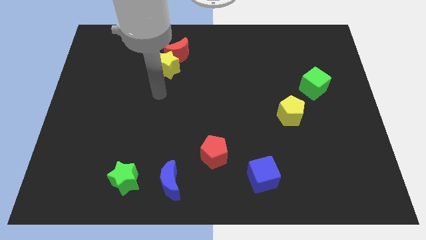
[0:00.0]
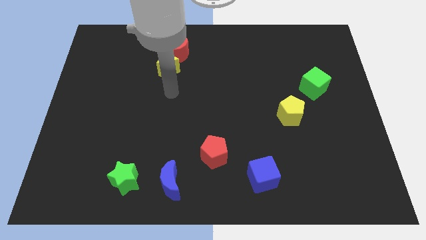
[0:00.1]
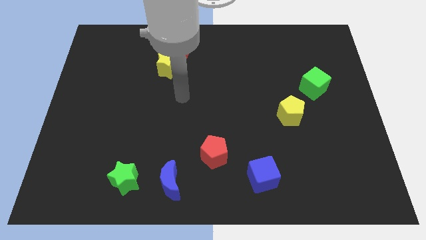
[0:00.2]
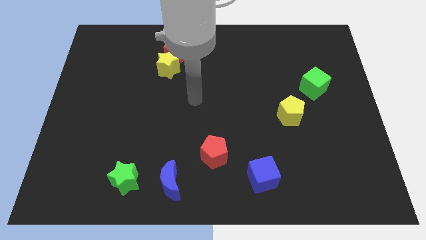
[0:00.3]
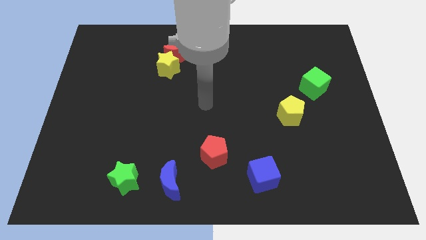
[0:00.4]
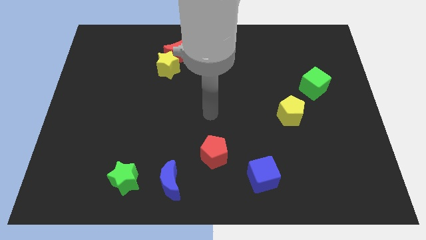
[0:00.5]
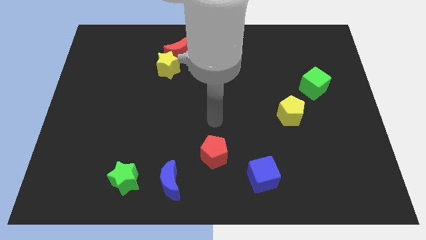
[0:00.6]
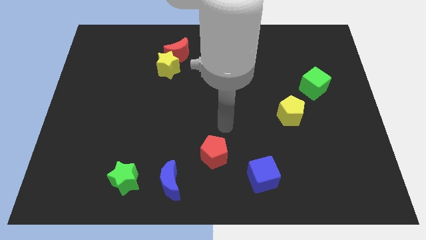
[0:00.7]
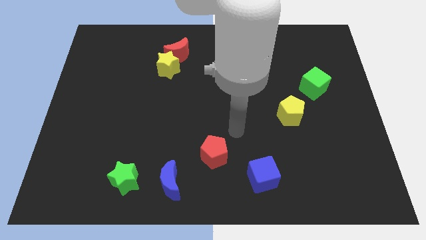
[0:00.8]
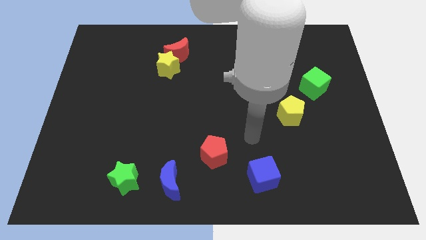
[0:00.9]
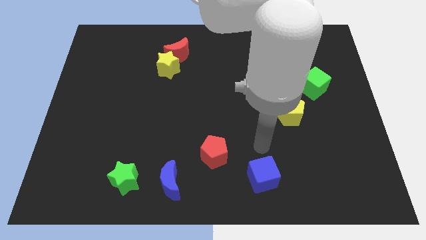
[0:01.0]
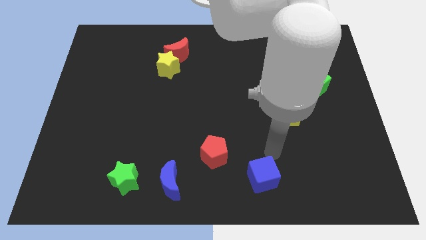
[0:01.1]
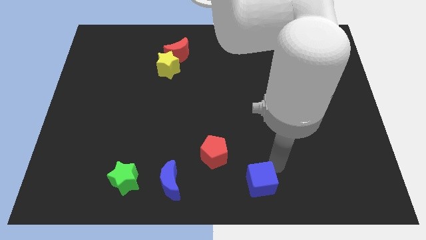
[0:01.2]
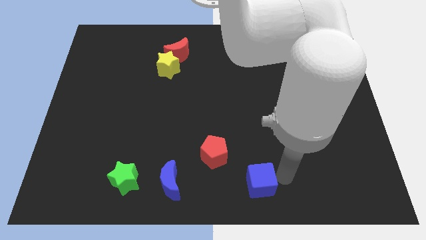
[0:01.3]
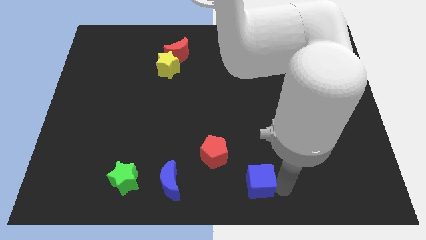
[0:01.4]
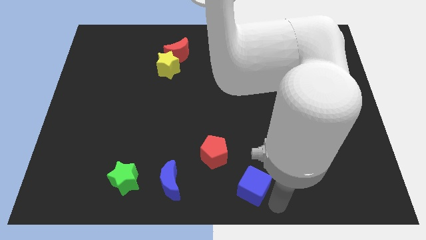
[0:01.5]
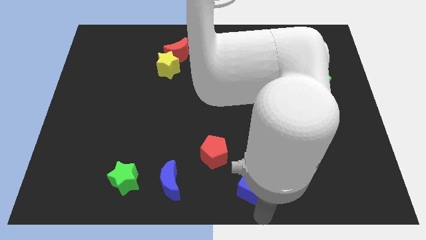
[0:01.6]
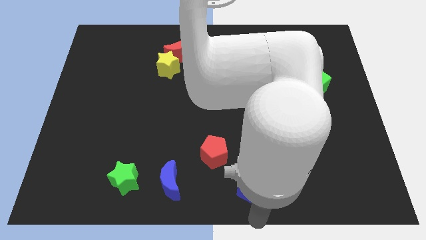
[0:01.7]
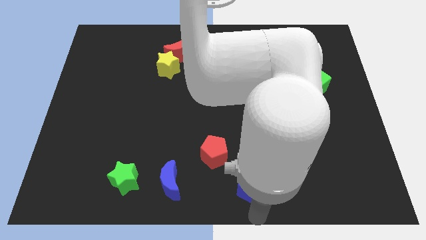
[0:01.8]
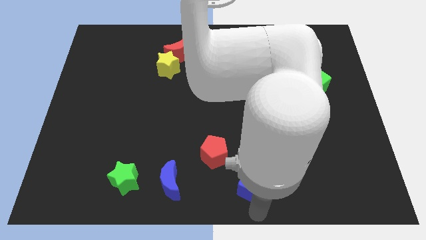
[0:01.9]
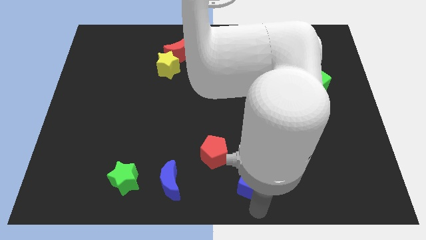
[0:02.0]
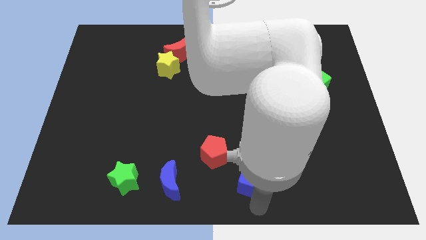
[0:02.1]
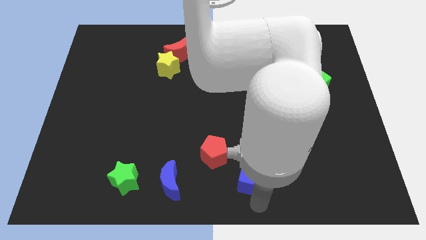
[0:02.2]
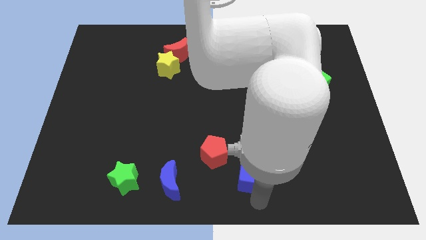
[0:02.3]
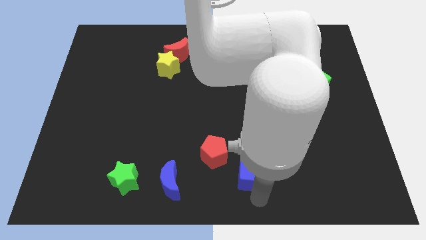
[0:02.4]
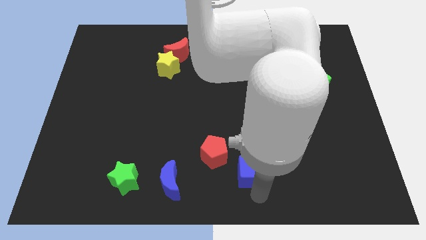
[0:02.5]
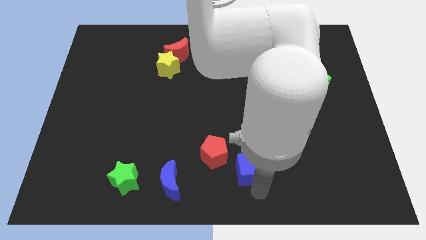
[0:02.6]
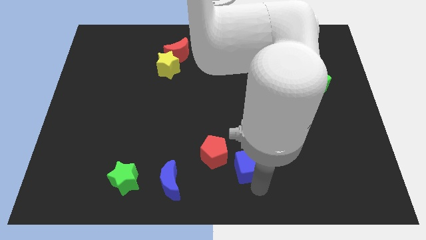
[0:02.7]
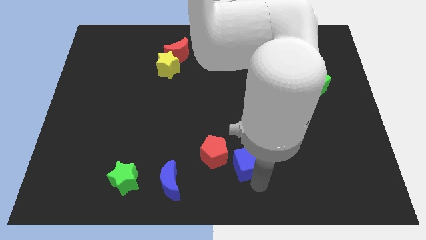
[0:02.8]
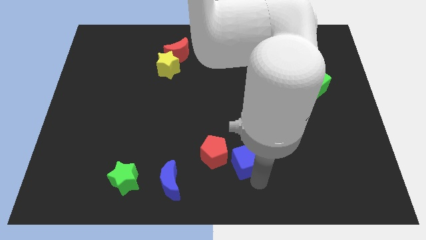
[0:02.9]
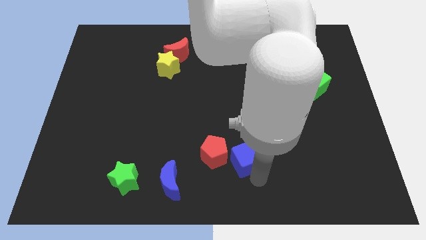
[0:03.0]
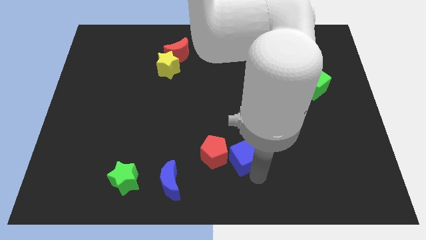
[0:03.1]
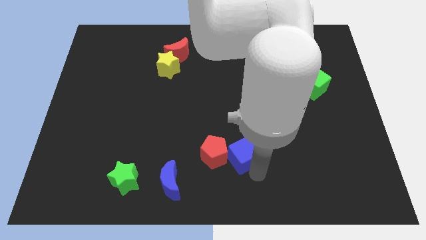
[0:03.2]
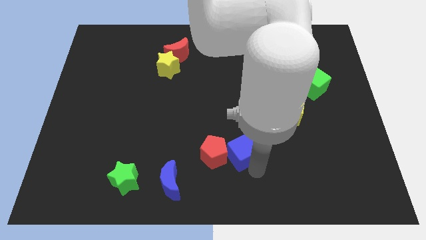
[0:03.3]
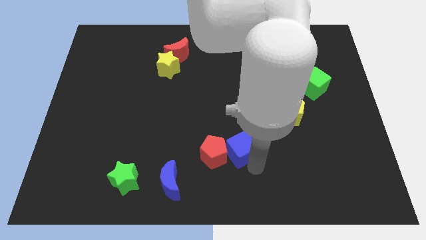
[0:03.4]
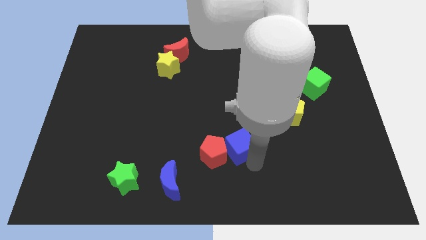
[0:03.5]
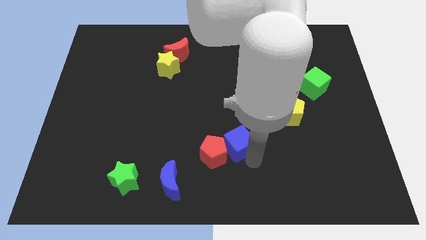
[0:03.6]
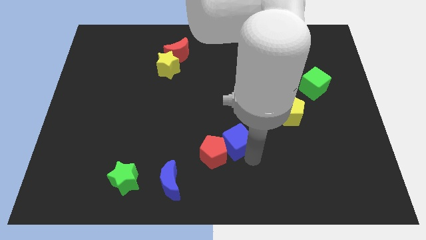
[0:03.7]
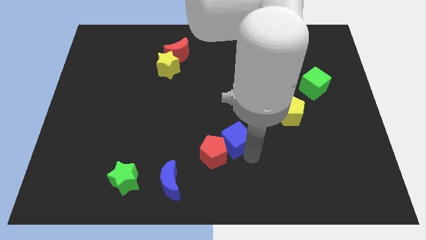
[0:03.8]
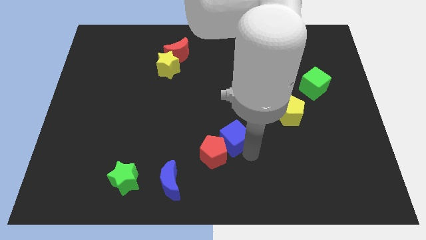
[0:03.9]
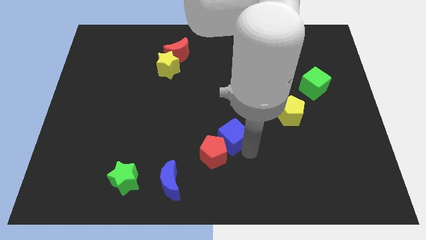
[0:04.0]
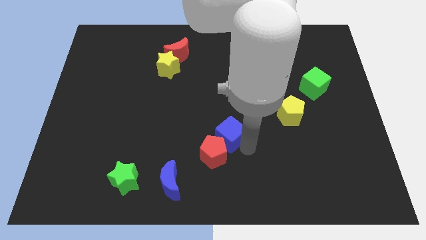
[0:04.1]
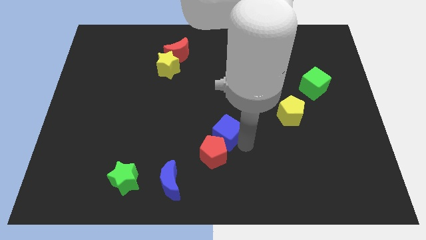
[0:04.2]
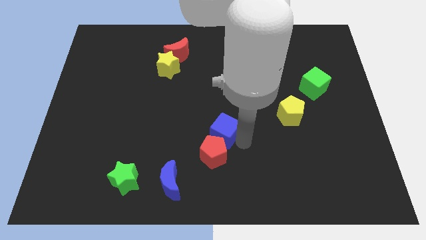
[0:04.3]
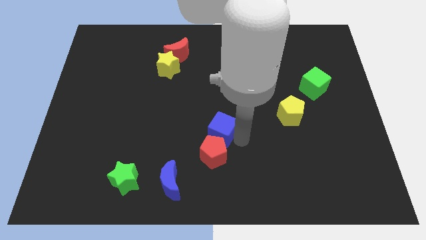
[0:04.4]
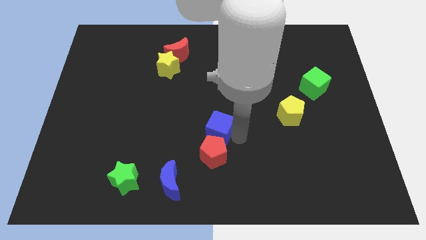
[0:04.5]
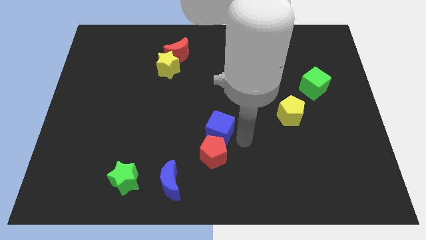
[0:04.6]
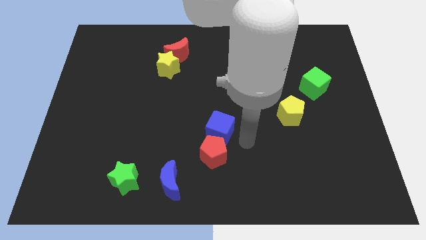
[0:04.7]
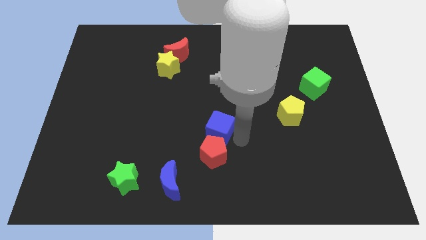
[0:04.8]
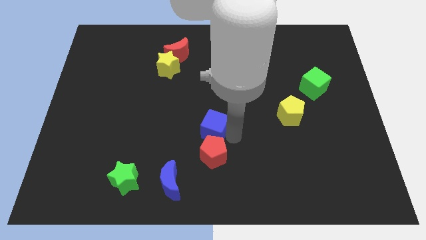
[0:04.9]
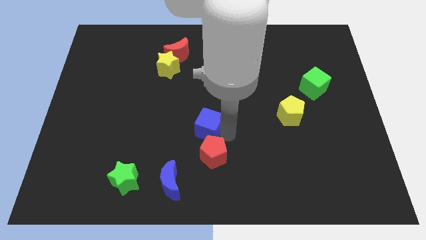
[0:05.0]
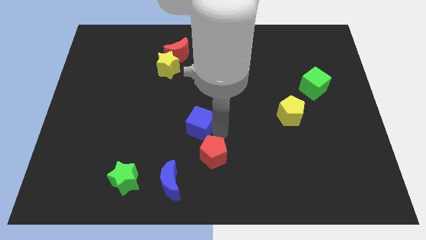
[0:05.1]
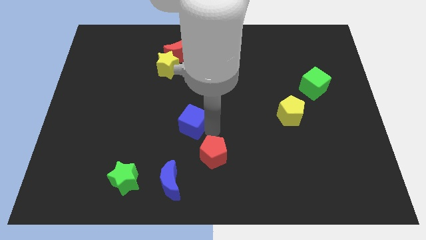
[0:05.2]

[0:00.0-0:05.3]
move the blue cube upwards and left

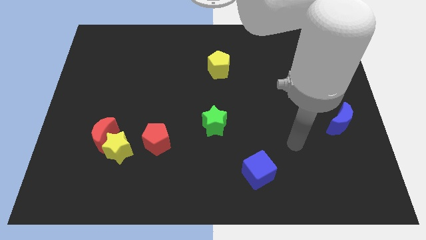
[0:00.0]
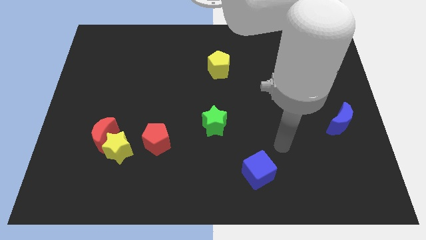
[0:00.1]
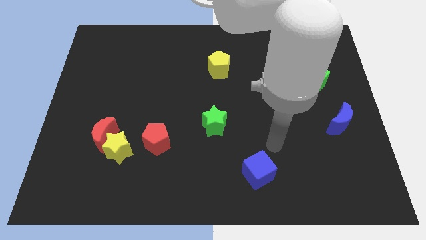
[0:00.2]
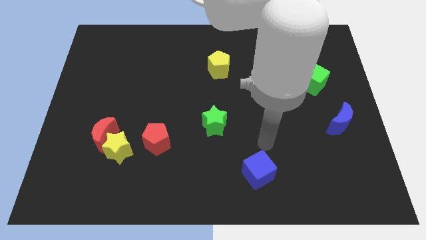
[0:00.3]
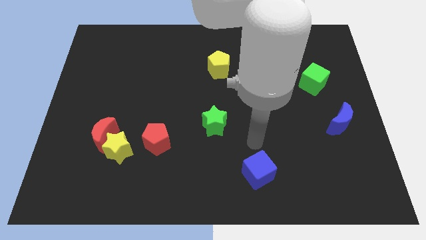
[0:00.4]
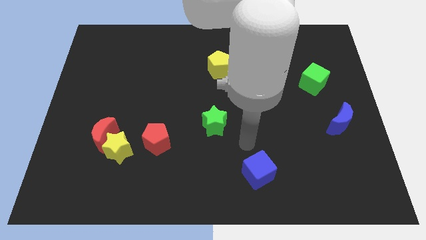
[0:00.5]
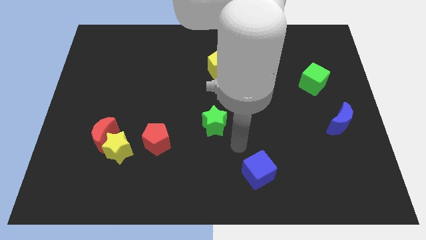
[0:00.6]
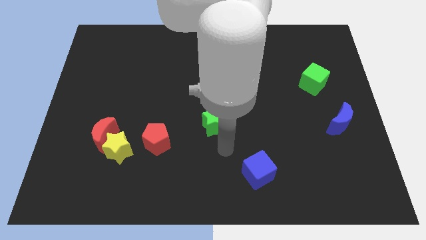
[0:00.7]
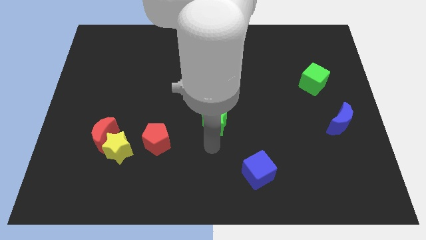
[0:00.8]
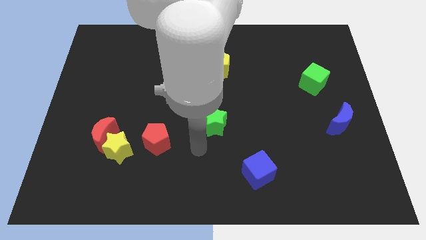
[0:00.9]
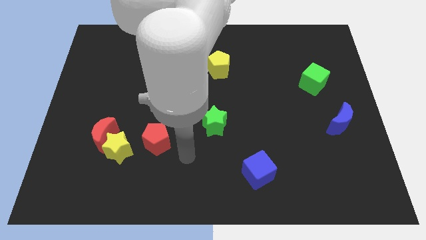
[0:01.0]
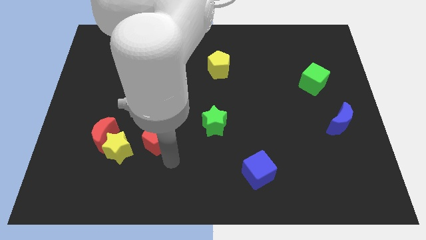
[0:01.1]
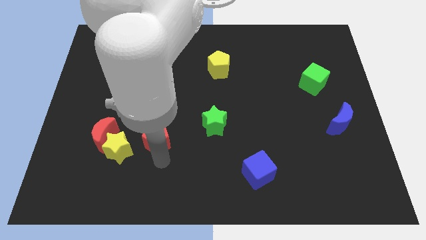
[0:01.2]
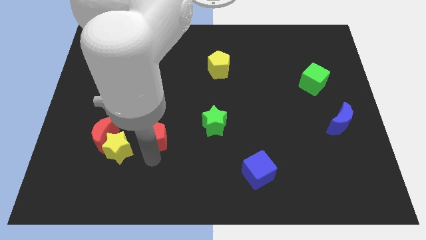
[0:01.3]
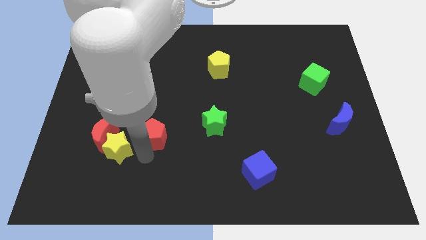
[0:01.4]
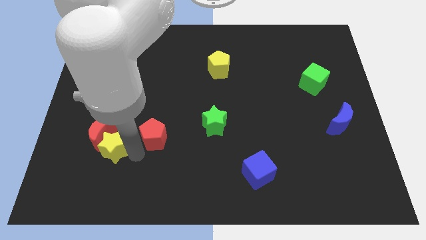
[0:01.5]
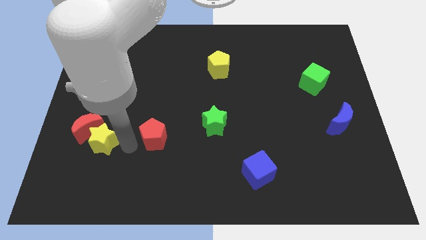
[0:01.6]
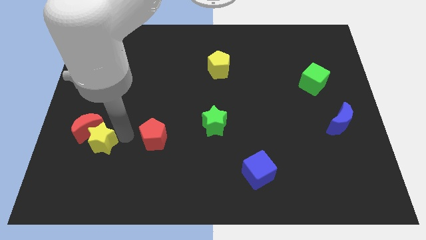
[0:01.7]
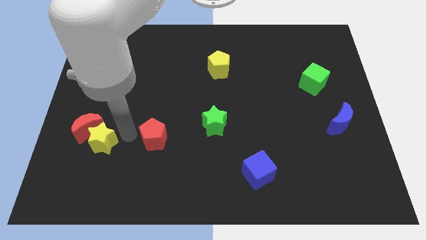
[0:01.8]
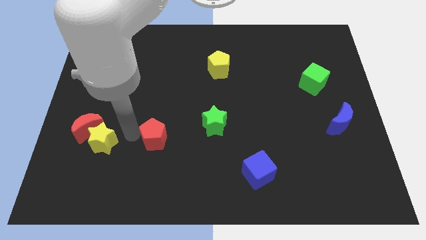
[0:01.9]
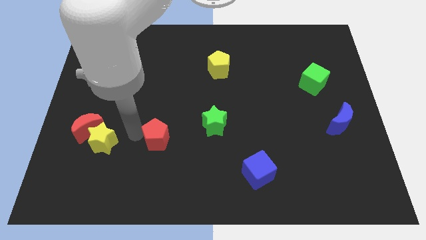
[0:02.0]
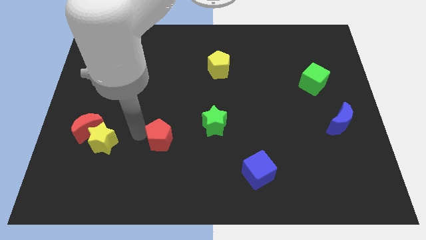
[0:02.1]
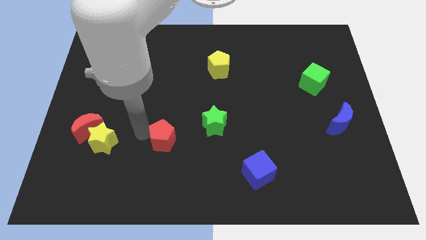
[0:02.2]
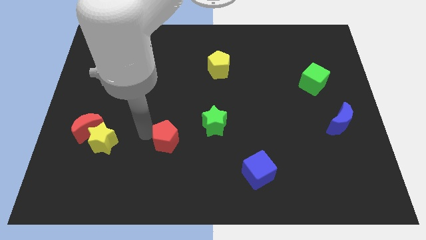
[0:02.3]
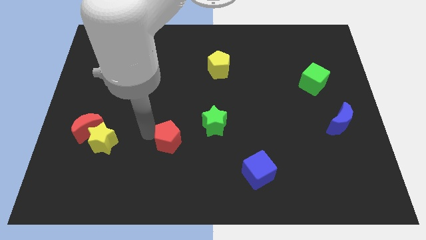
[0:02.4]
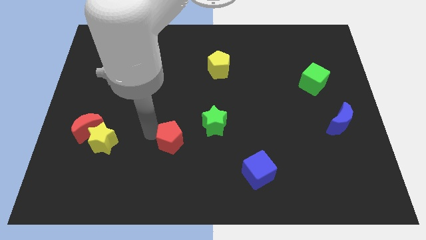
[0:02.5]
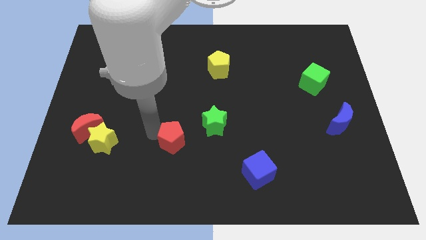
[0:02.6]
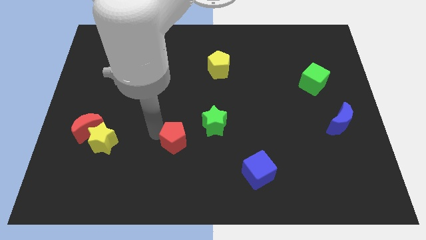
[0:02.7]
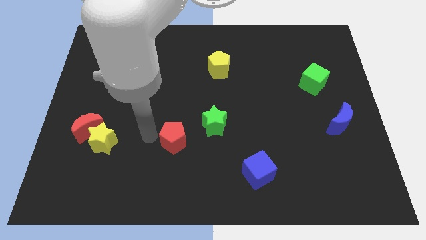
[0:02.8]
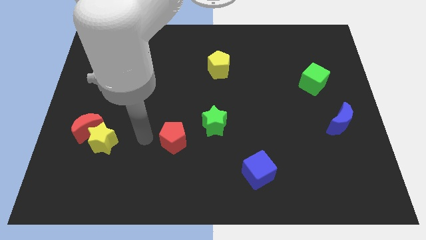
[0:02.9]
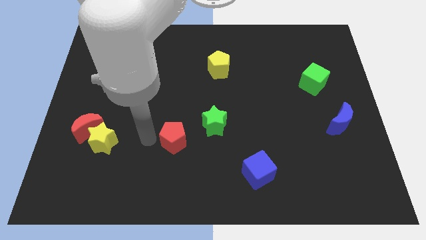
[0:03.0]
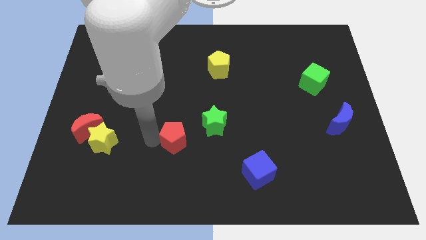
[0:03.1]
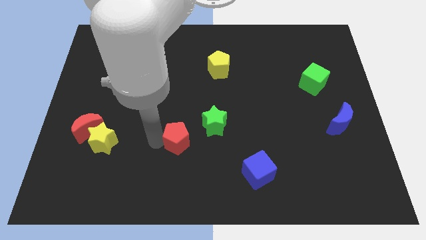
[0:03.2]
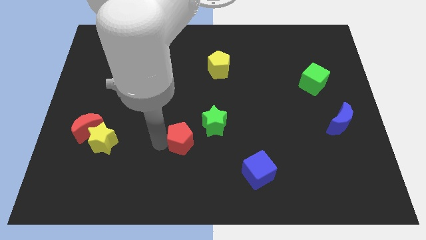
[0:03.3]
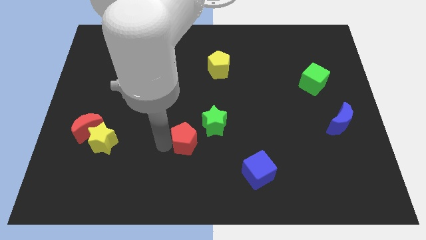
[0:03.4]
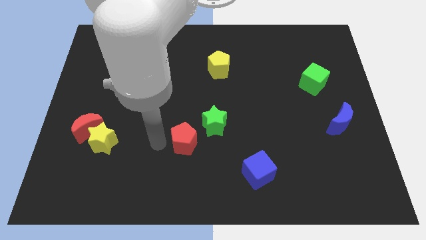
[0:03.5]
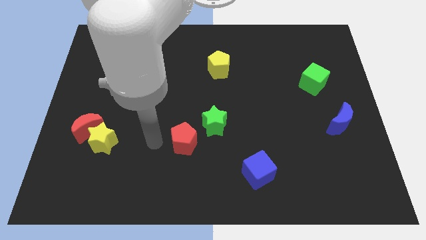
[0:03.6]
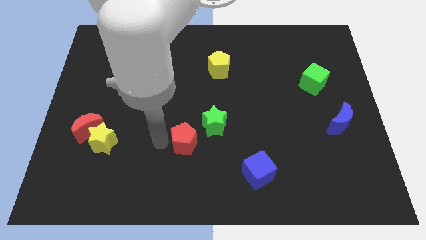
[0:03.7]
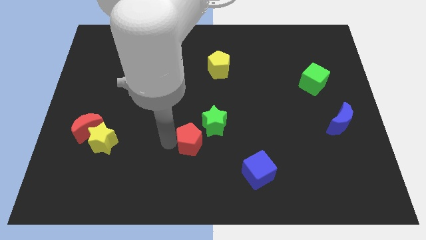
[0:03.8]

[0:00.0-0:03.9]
slightly push the red pentagon right
